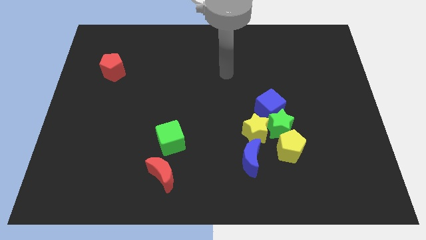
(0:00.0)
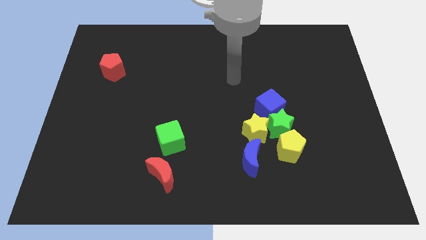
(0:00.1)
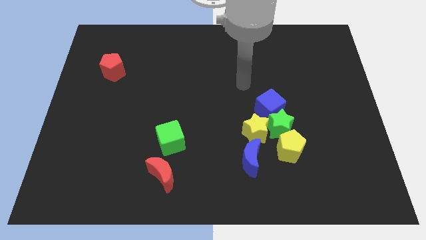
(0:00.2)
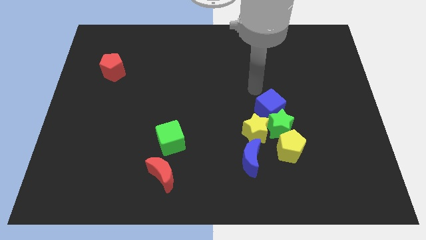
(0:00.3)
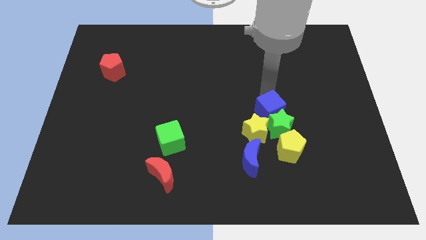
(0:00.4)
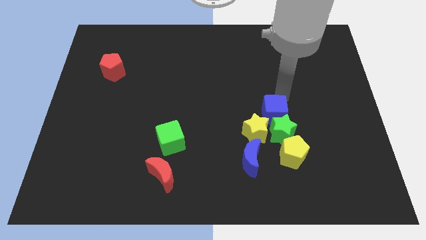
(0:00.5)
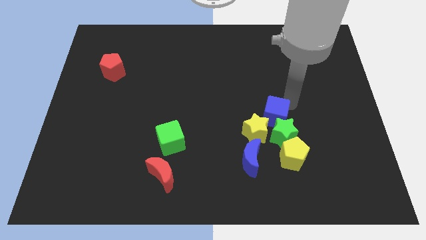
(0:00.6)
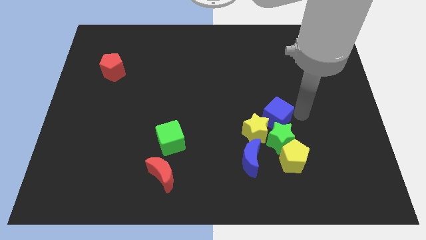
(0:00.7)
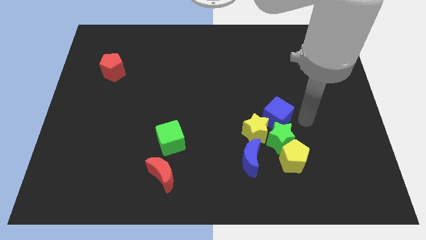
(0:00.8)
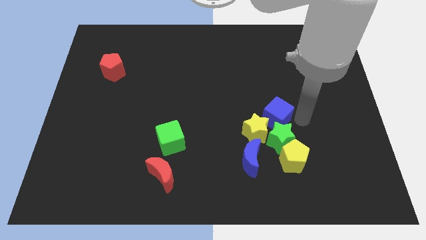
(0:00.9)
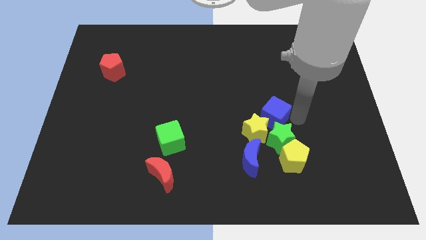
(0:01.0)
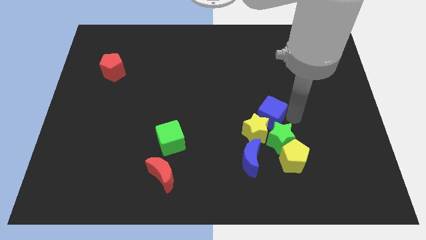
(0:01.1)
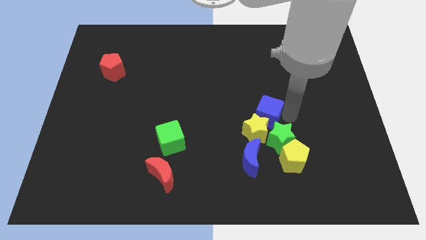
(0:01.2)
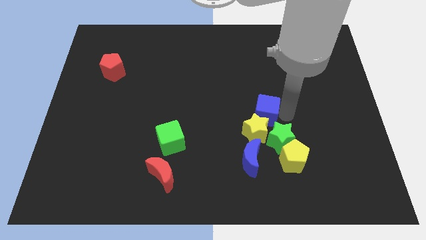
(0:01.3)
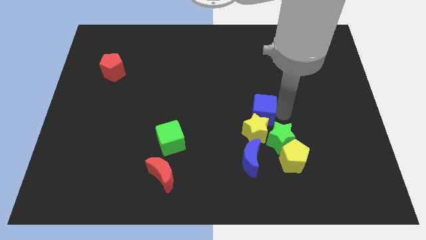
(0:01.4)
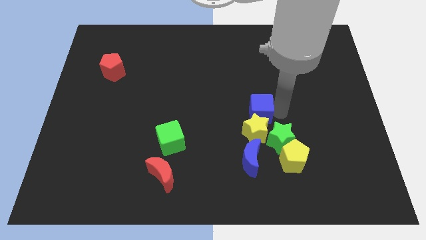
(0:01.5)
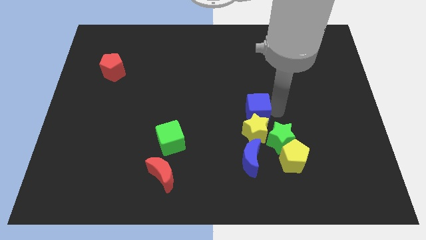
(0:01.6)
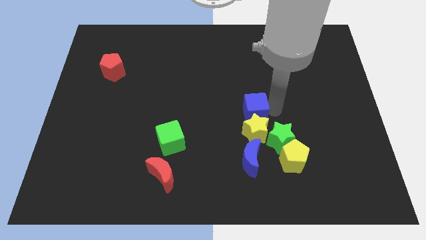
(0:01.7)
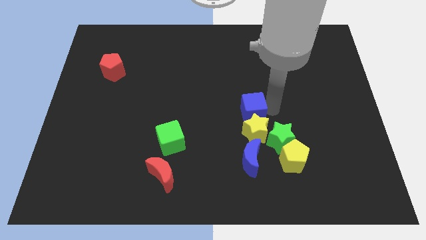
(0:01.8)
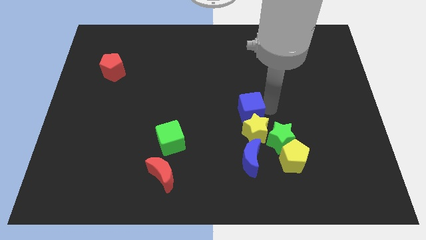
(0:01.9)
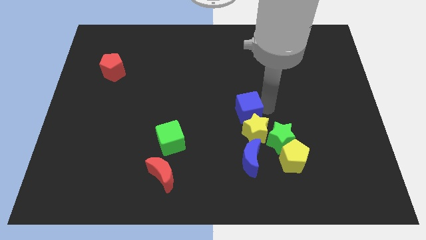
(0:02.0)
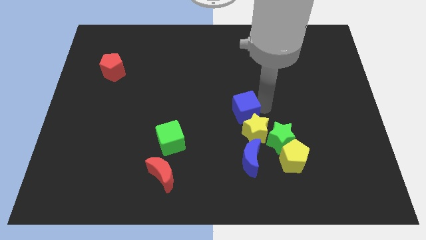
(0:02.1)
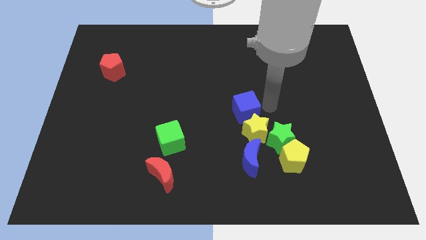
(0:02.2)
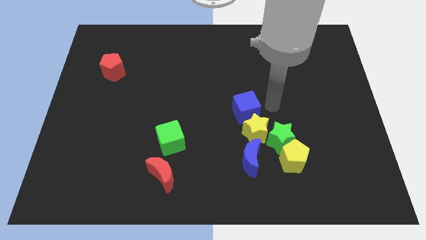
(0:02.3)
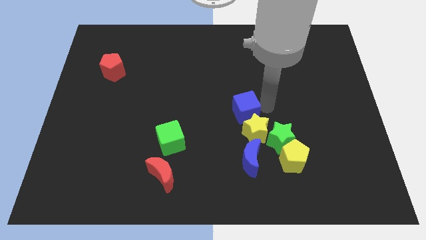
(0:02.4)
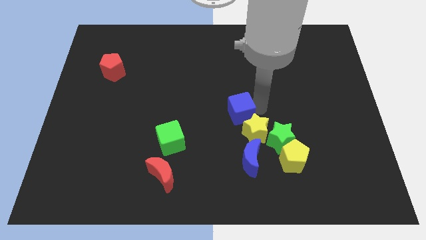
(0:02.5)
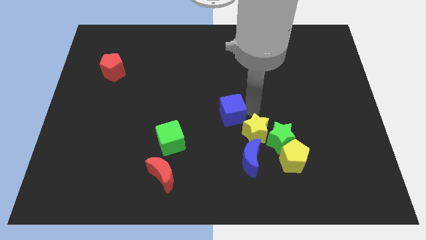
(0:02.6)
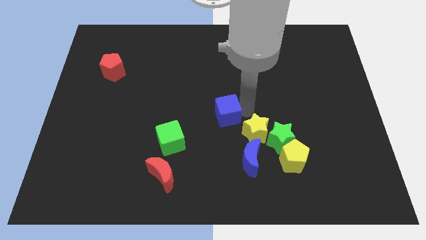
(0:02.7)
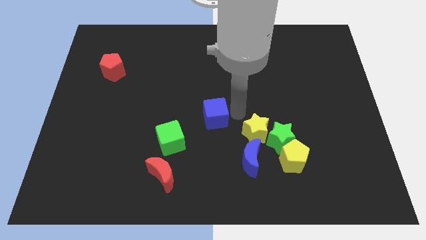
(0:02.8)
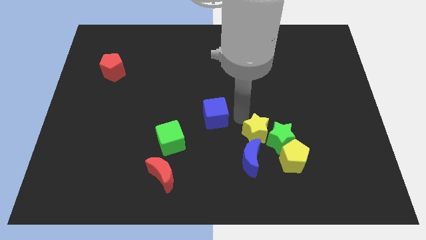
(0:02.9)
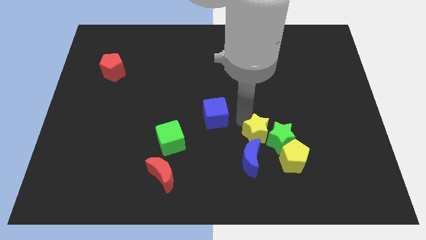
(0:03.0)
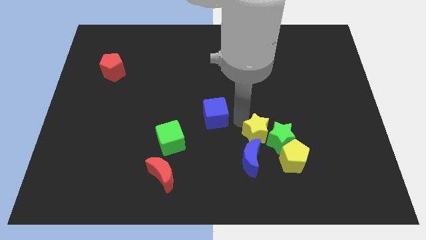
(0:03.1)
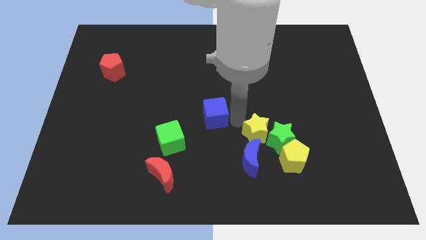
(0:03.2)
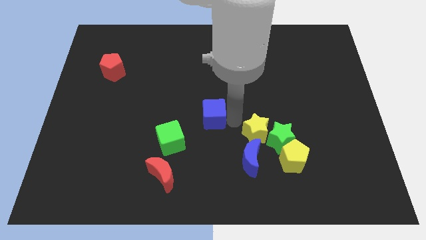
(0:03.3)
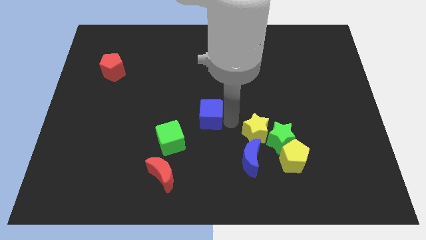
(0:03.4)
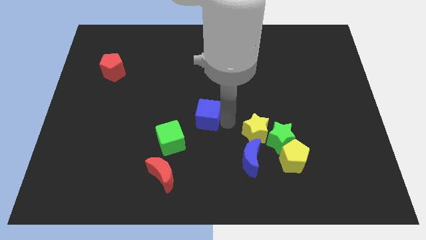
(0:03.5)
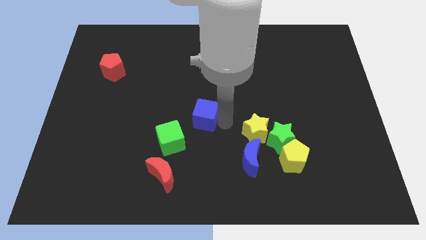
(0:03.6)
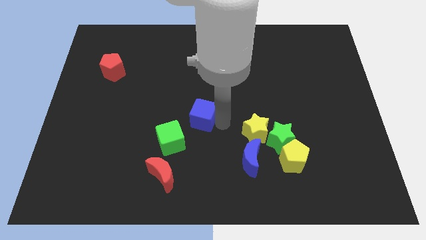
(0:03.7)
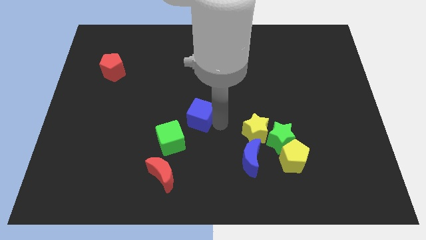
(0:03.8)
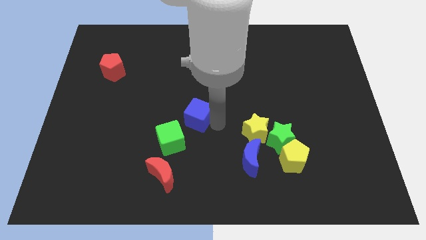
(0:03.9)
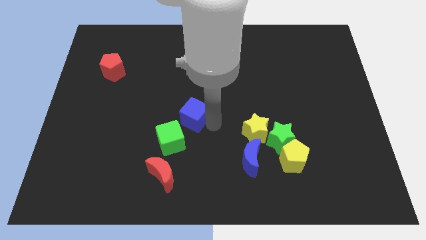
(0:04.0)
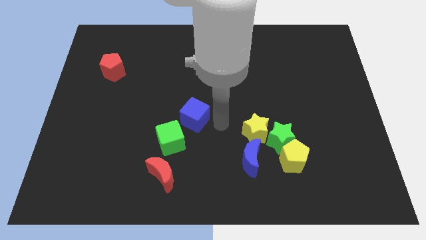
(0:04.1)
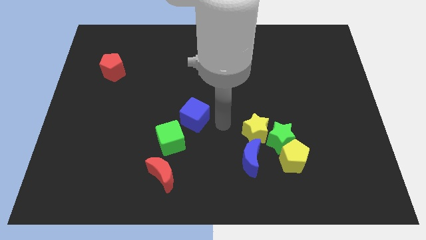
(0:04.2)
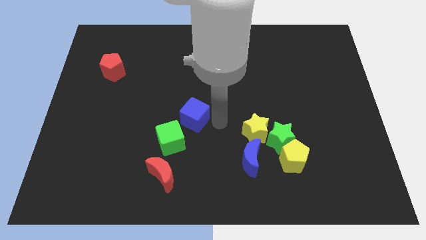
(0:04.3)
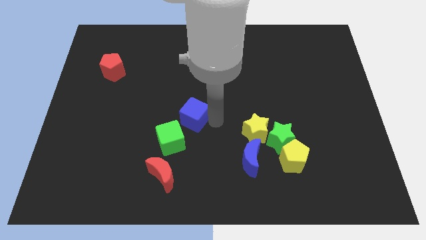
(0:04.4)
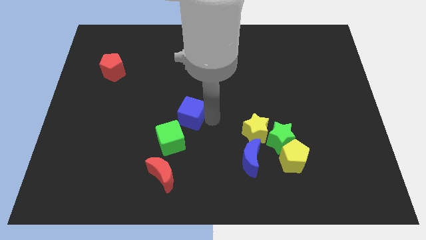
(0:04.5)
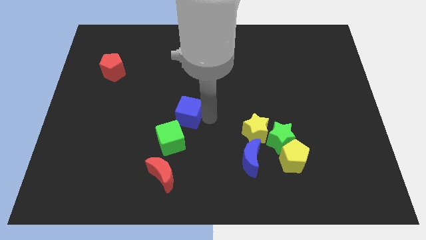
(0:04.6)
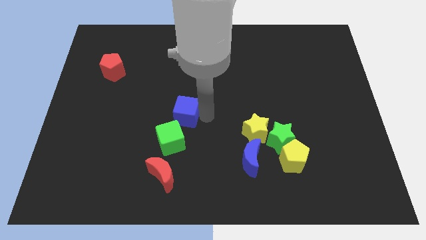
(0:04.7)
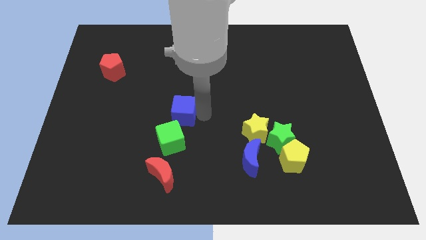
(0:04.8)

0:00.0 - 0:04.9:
slide the blue cube to the left

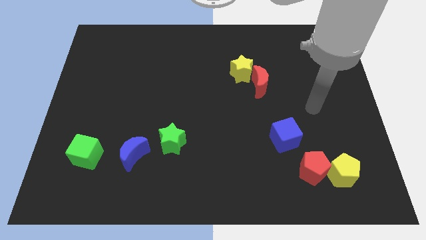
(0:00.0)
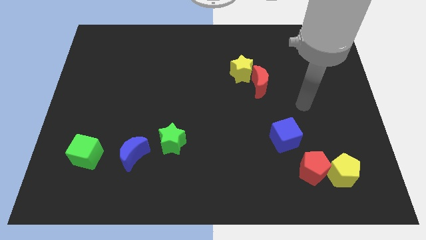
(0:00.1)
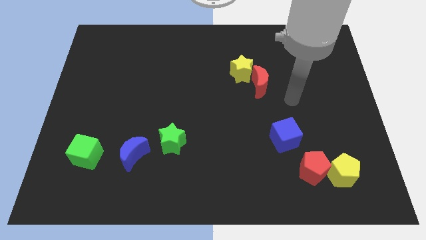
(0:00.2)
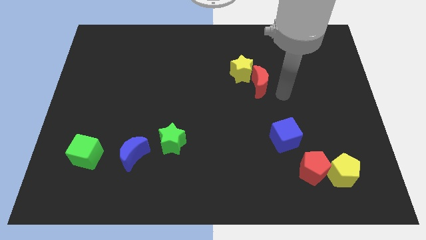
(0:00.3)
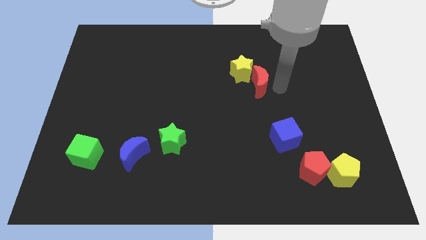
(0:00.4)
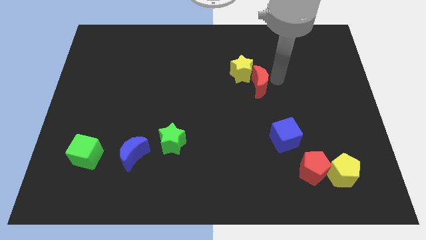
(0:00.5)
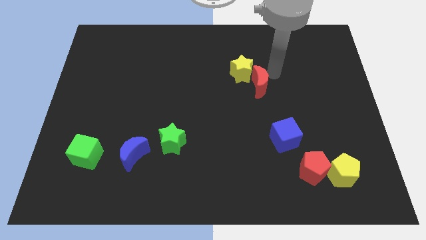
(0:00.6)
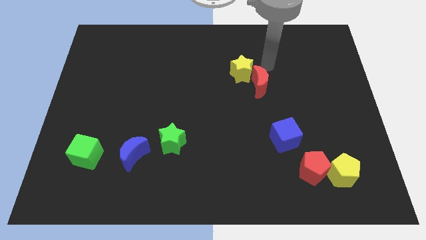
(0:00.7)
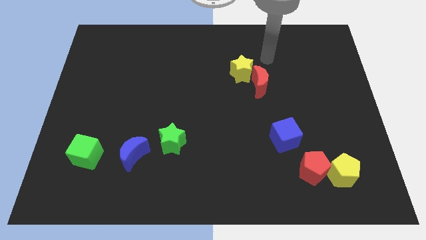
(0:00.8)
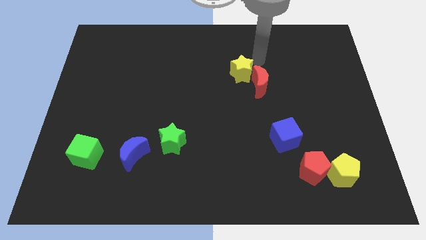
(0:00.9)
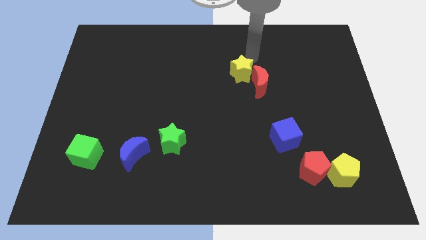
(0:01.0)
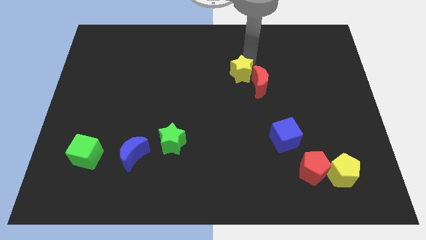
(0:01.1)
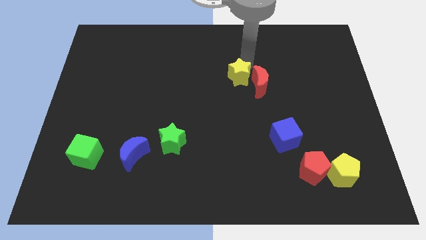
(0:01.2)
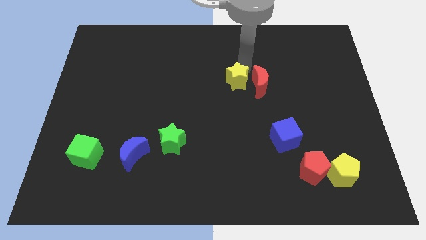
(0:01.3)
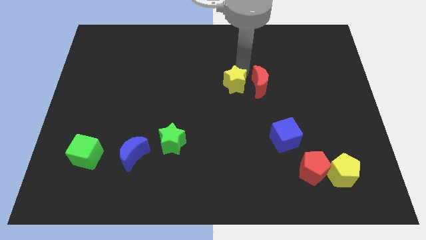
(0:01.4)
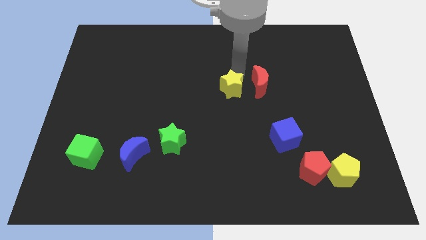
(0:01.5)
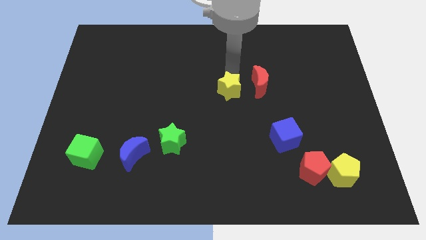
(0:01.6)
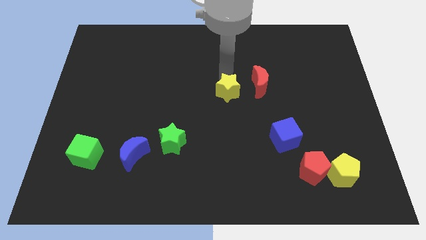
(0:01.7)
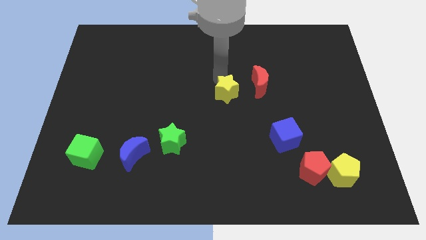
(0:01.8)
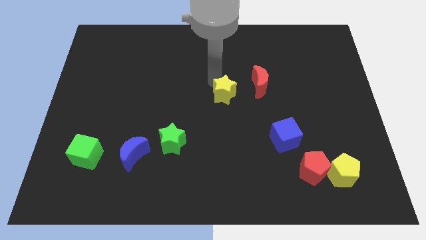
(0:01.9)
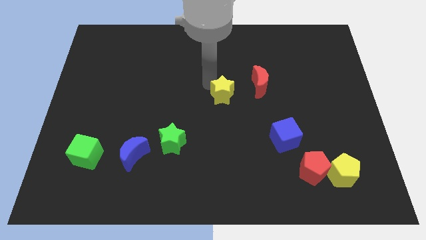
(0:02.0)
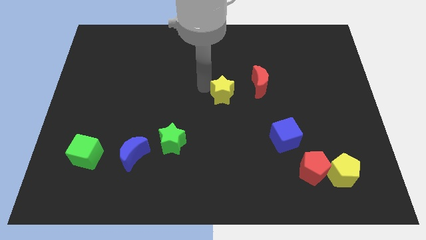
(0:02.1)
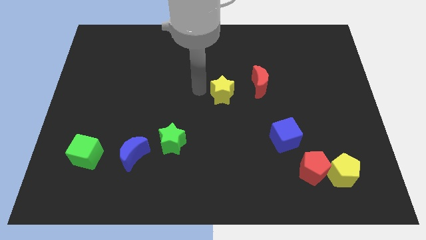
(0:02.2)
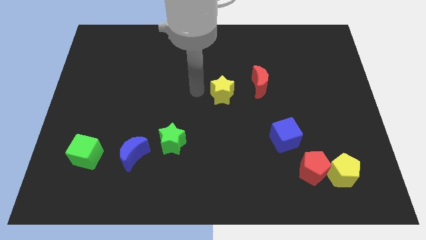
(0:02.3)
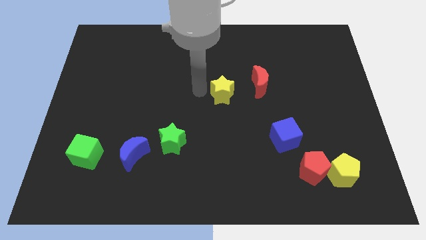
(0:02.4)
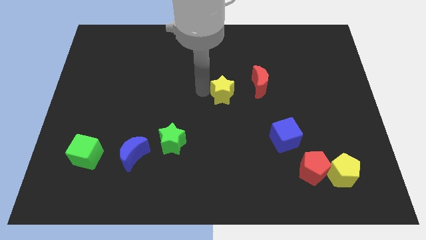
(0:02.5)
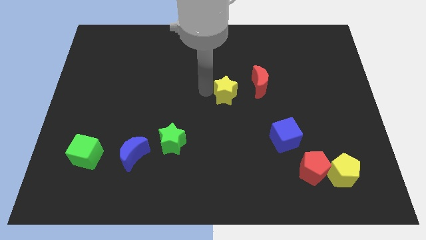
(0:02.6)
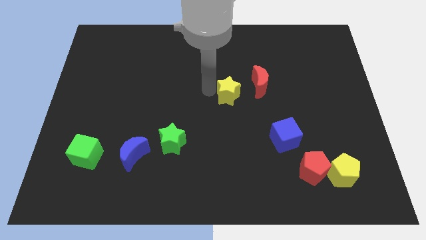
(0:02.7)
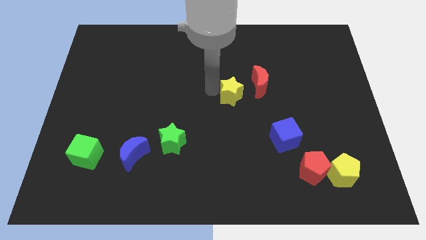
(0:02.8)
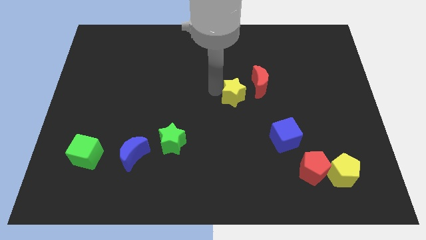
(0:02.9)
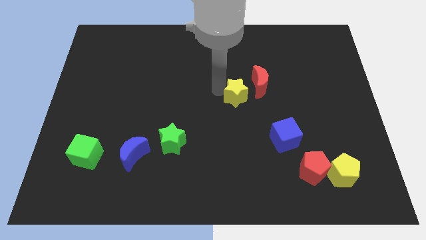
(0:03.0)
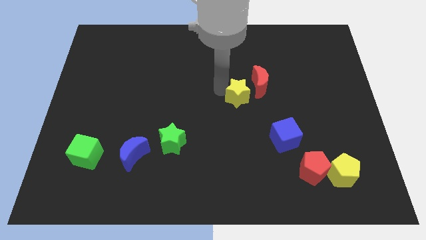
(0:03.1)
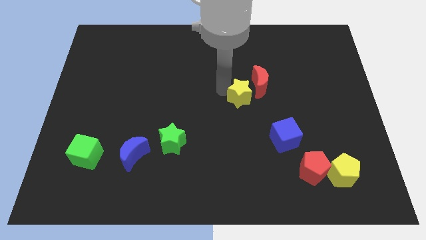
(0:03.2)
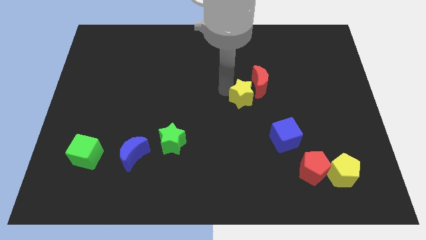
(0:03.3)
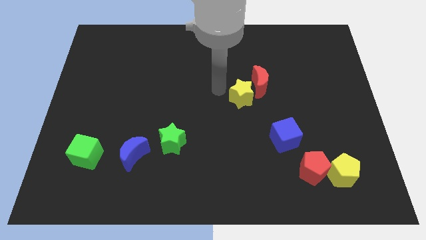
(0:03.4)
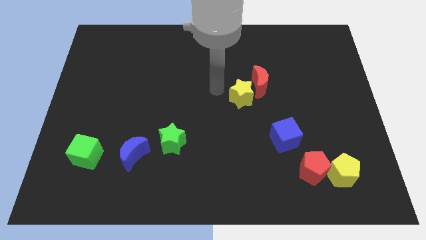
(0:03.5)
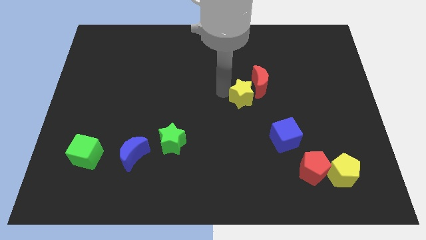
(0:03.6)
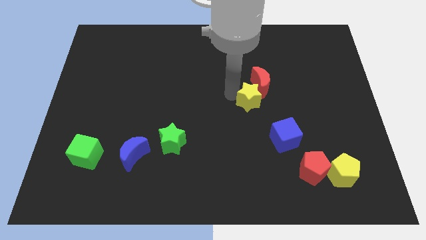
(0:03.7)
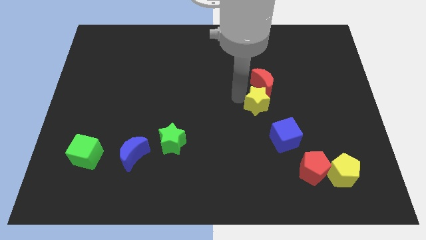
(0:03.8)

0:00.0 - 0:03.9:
slightly slide the yellow star downwards and right
